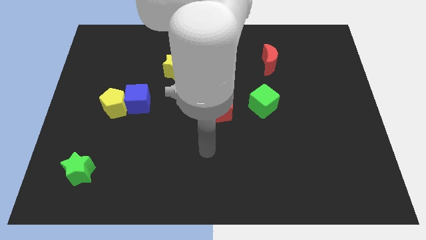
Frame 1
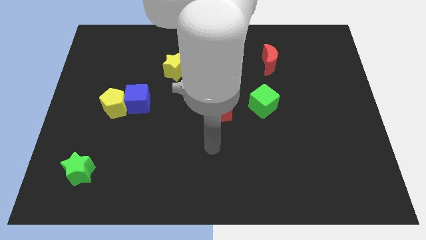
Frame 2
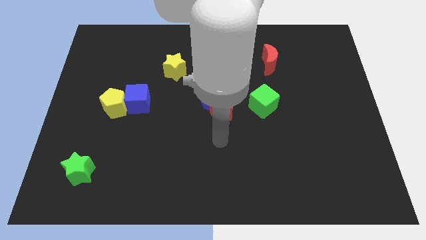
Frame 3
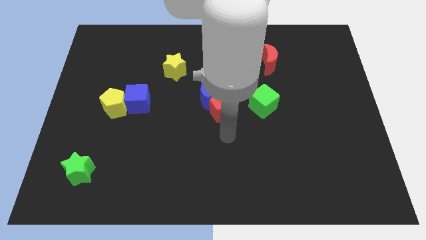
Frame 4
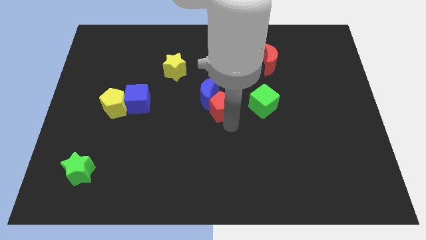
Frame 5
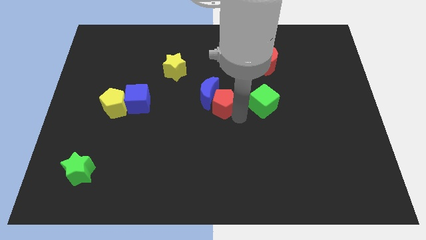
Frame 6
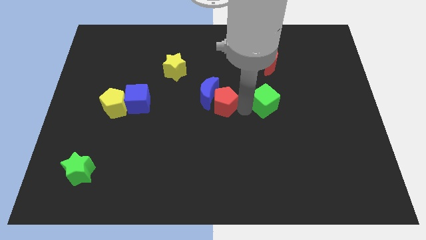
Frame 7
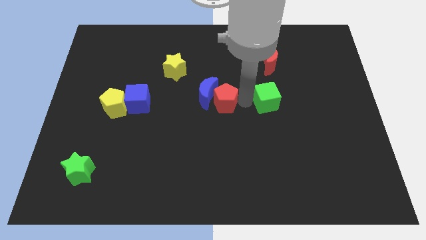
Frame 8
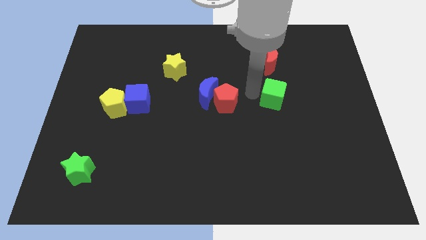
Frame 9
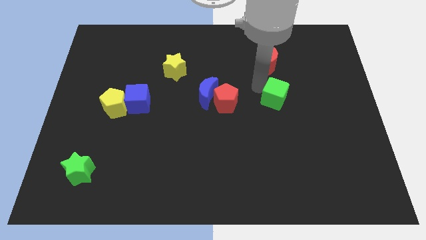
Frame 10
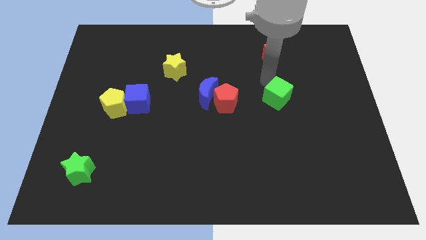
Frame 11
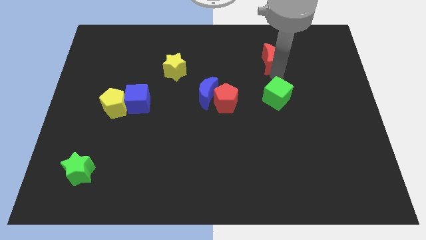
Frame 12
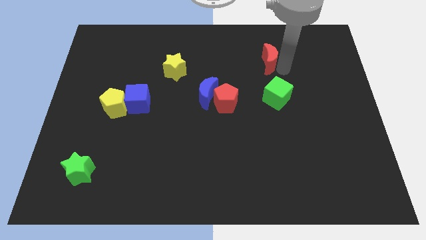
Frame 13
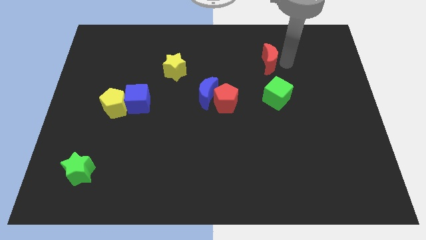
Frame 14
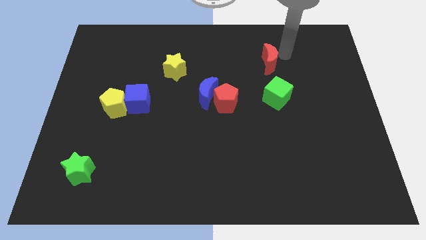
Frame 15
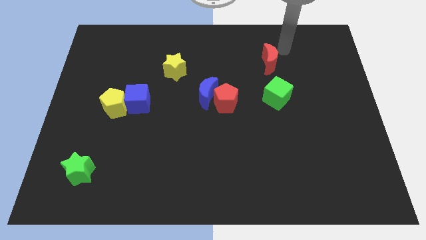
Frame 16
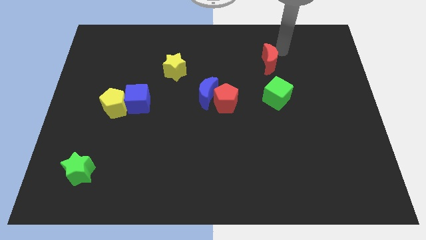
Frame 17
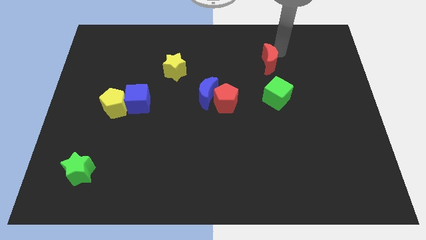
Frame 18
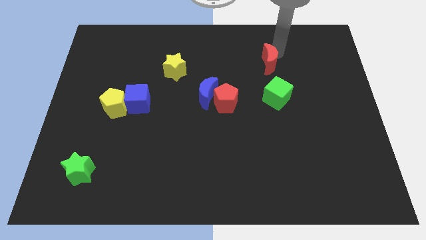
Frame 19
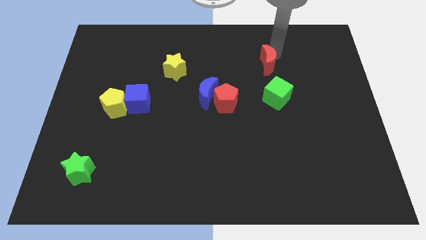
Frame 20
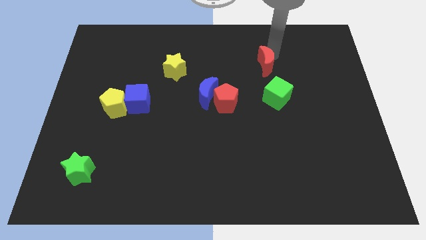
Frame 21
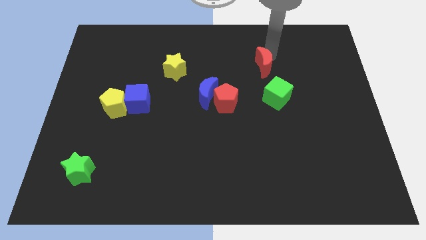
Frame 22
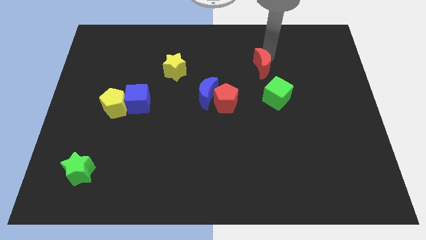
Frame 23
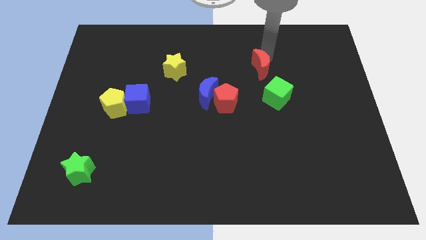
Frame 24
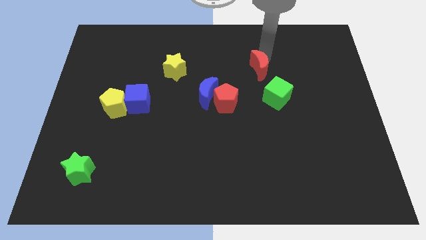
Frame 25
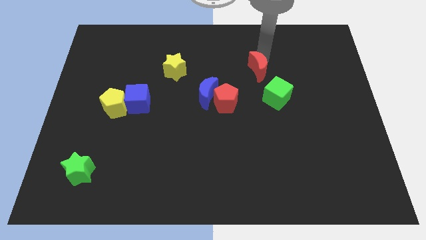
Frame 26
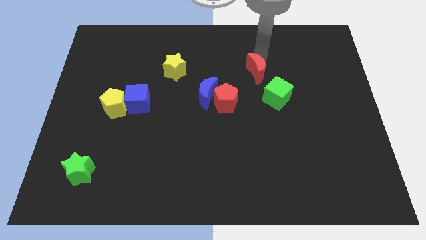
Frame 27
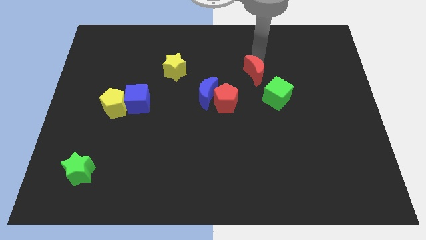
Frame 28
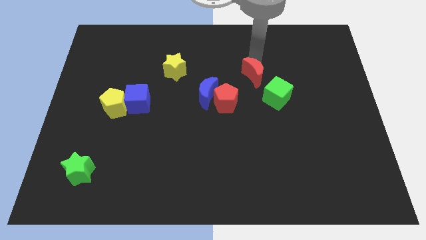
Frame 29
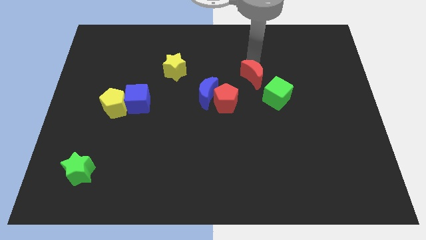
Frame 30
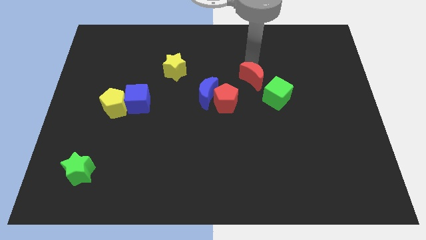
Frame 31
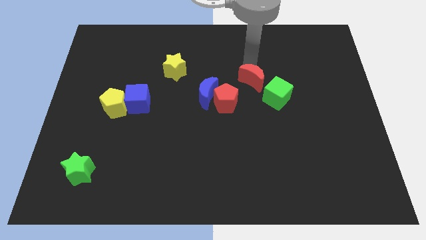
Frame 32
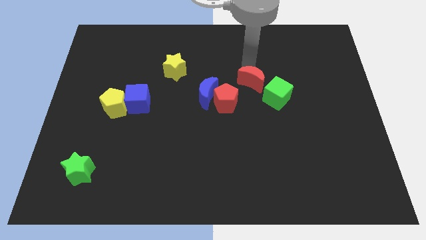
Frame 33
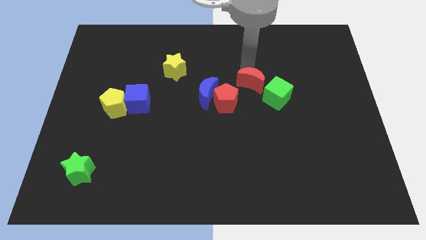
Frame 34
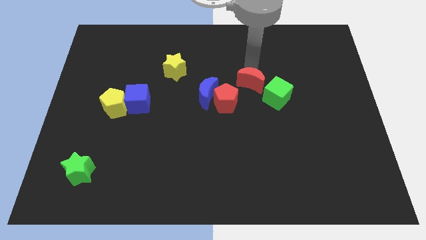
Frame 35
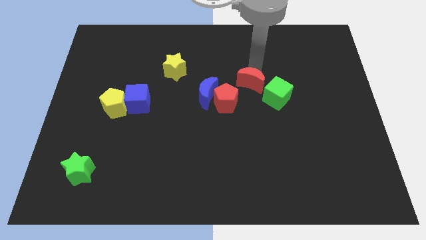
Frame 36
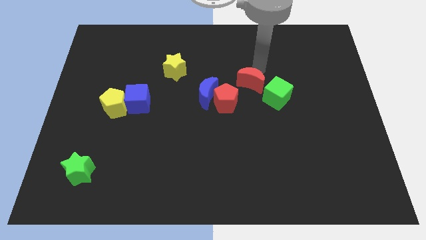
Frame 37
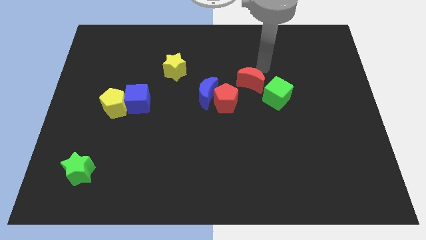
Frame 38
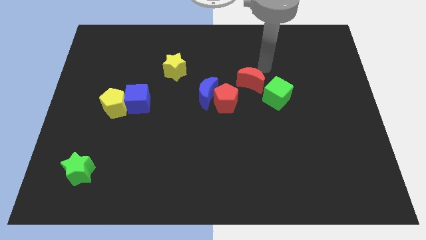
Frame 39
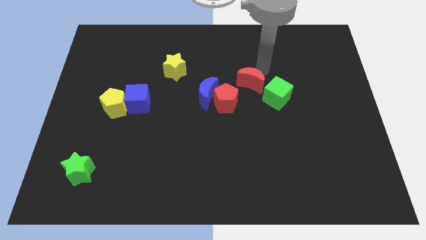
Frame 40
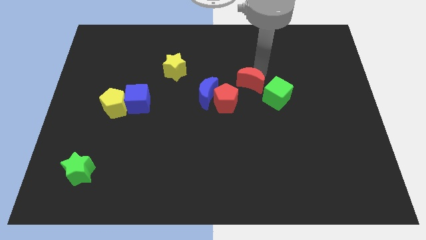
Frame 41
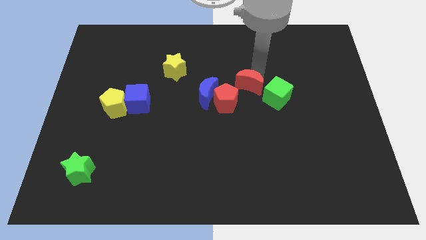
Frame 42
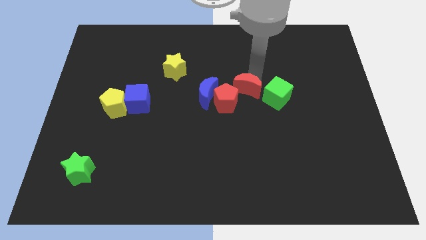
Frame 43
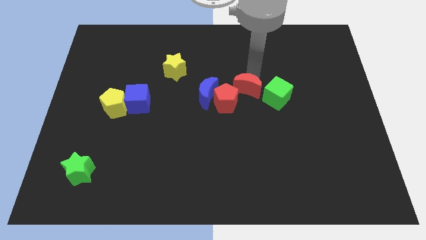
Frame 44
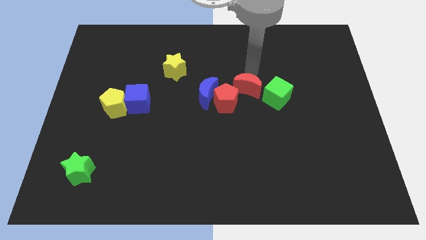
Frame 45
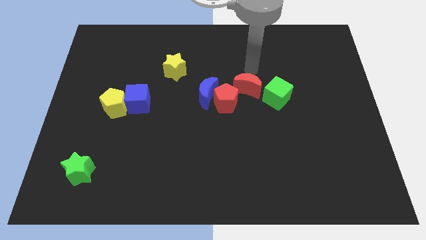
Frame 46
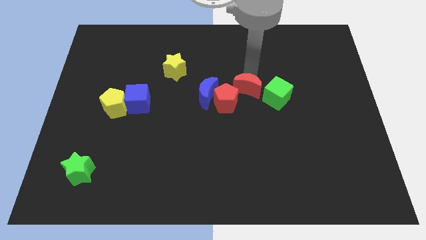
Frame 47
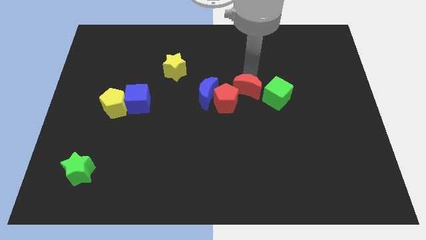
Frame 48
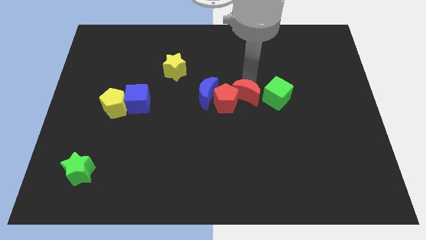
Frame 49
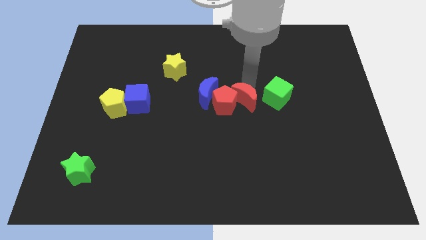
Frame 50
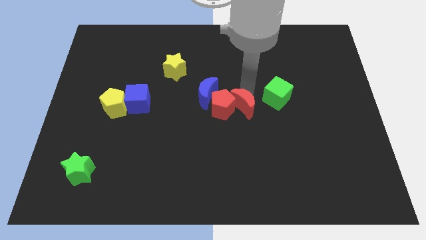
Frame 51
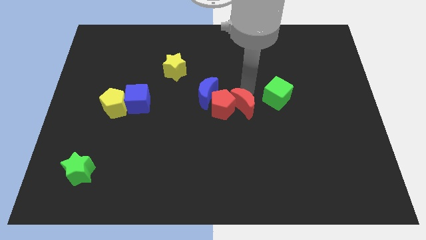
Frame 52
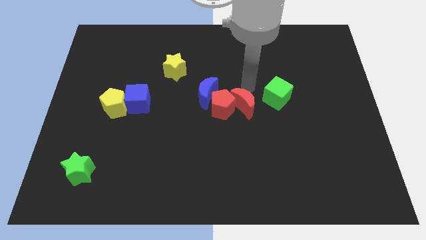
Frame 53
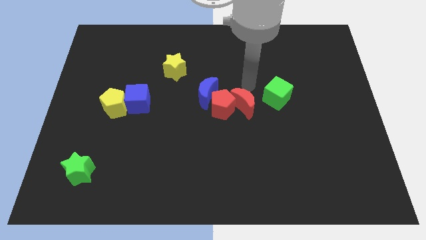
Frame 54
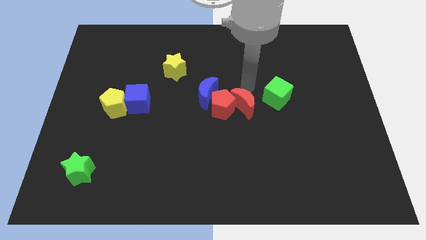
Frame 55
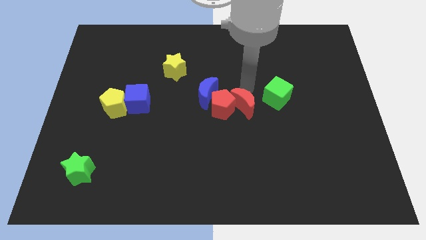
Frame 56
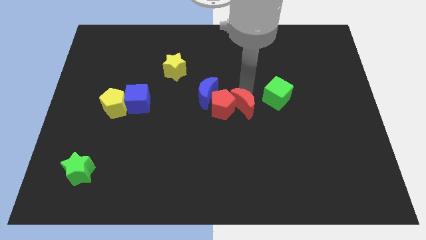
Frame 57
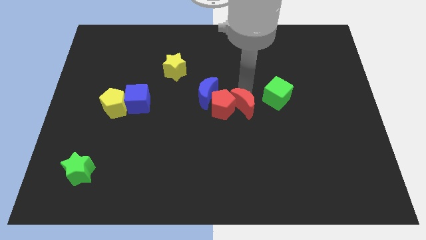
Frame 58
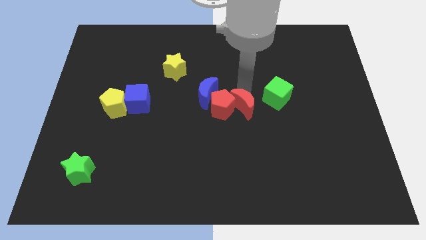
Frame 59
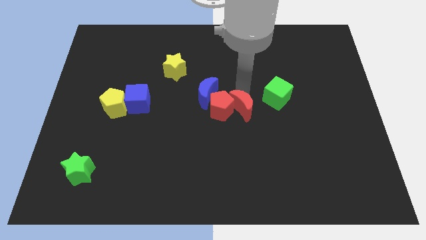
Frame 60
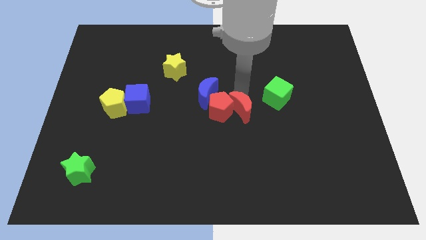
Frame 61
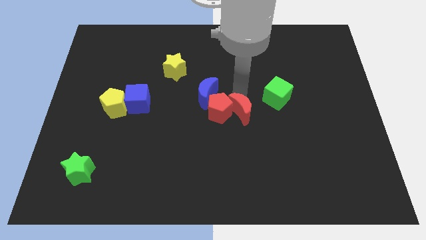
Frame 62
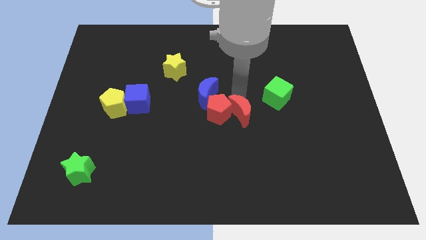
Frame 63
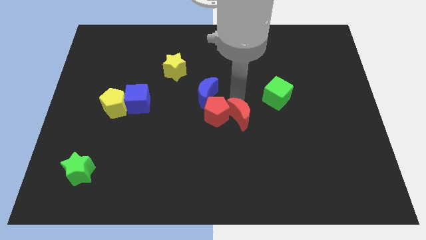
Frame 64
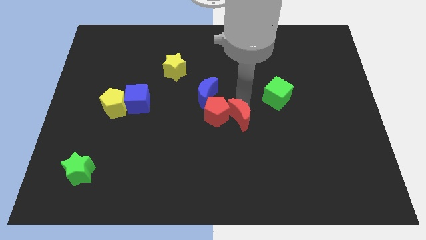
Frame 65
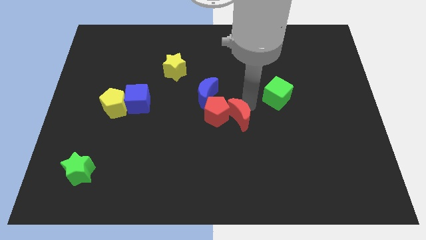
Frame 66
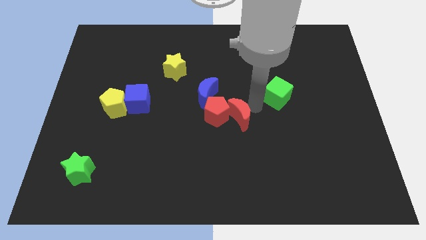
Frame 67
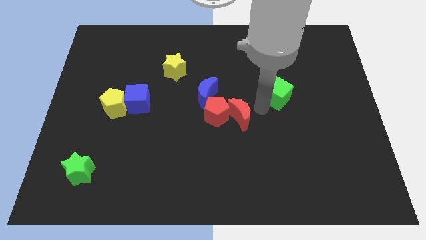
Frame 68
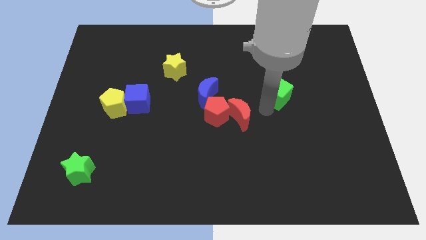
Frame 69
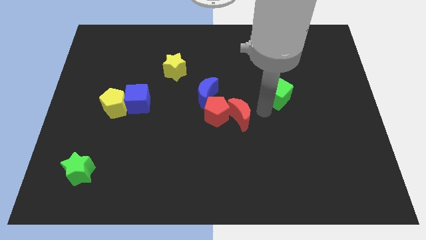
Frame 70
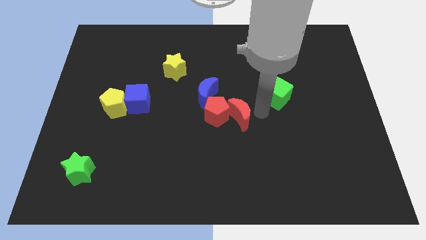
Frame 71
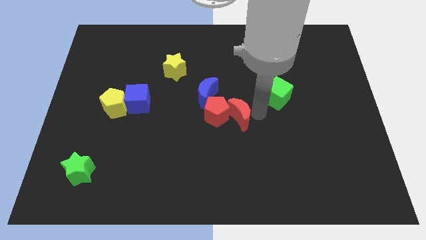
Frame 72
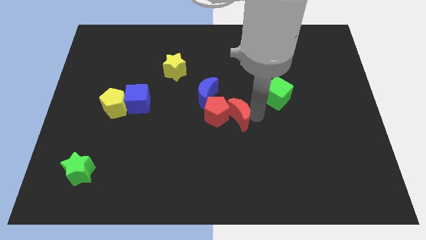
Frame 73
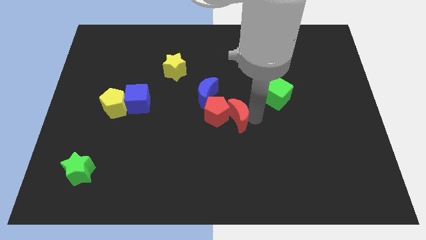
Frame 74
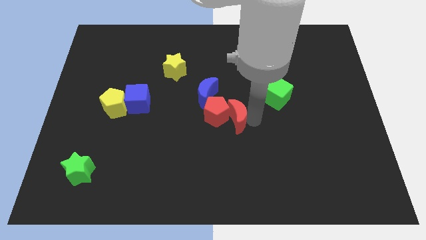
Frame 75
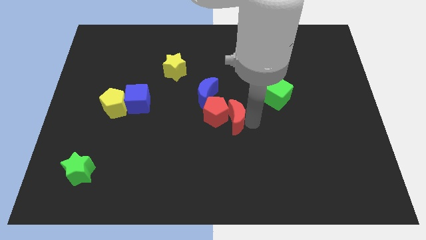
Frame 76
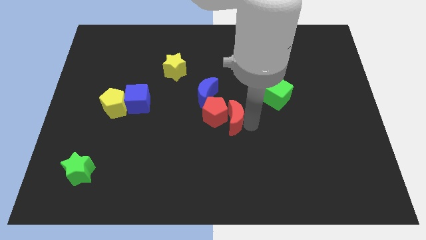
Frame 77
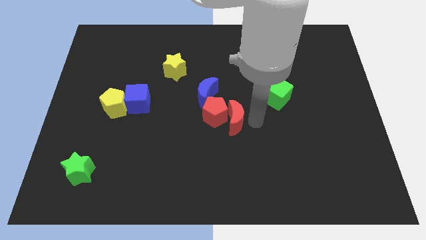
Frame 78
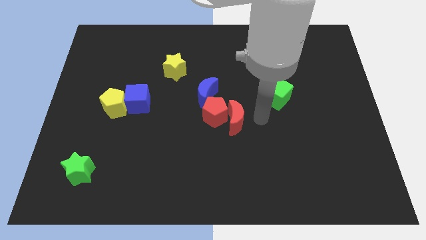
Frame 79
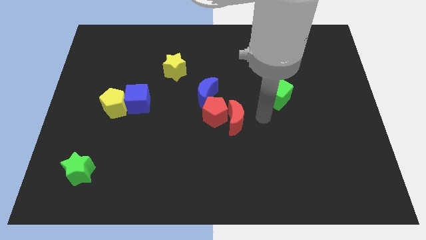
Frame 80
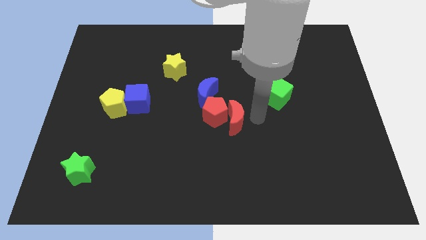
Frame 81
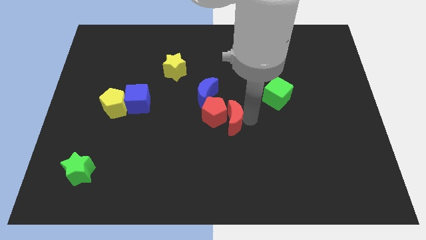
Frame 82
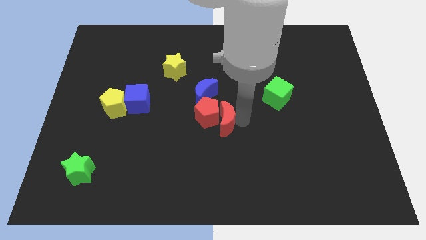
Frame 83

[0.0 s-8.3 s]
push the red moon downwards and to the left diagonally
